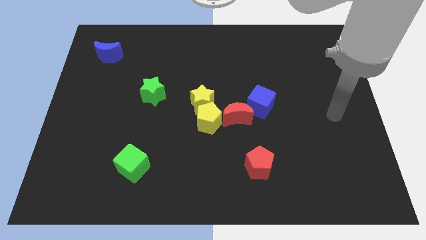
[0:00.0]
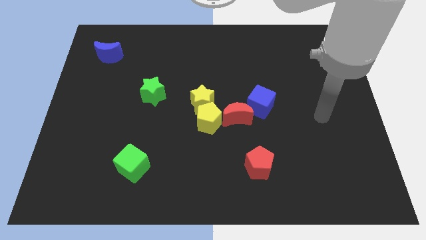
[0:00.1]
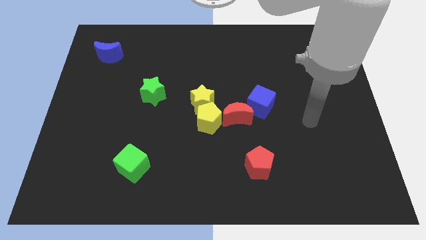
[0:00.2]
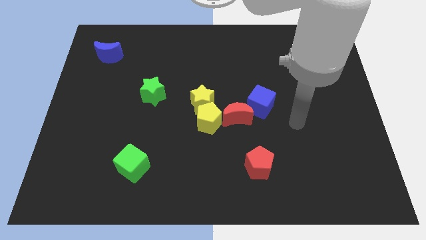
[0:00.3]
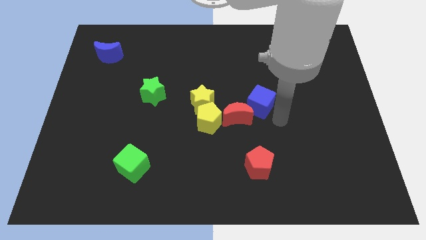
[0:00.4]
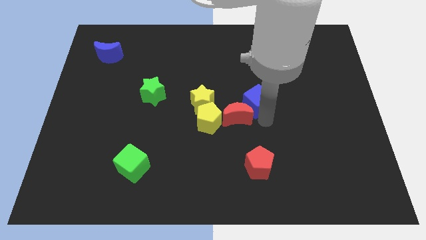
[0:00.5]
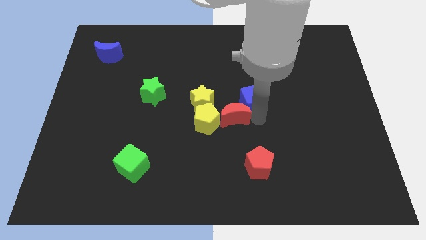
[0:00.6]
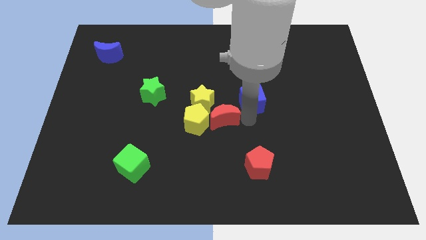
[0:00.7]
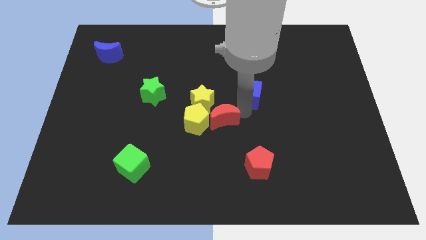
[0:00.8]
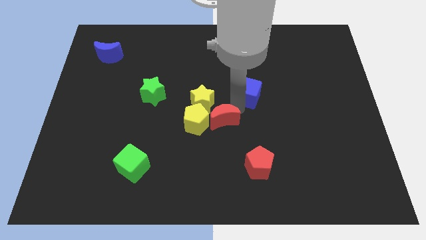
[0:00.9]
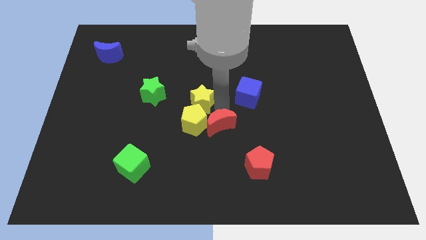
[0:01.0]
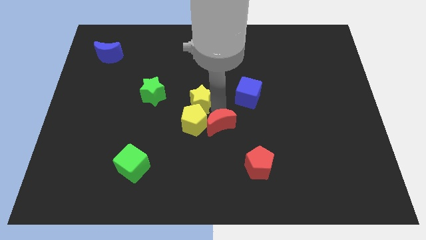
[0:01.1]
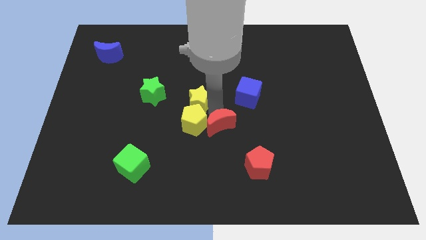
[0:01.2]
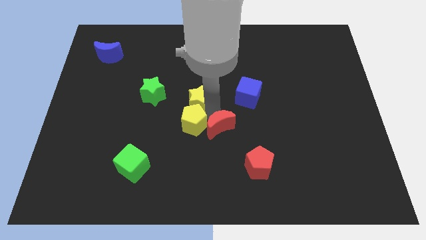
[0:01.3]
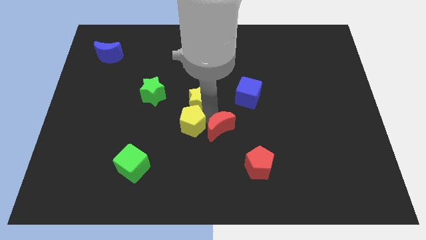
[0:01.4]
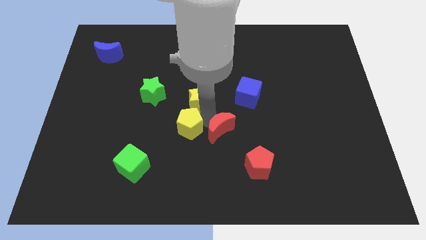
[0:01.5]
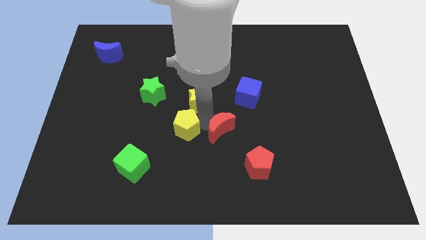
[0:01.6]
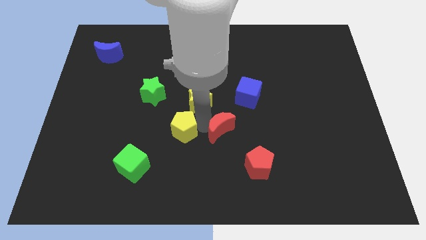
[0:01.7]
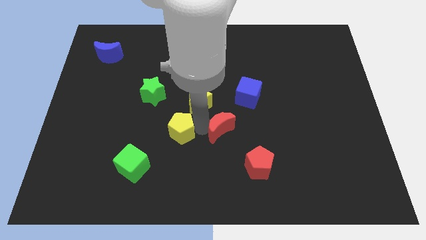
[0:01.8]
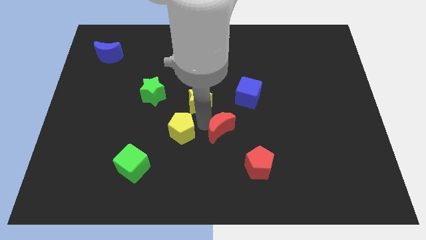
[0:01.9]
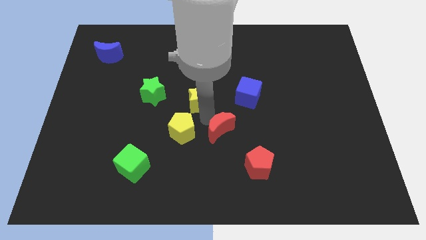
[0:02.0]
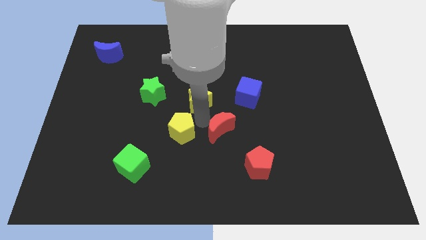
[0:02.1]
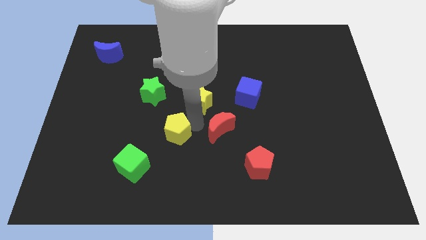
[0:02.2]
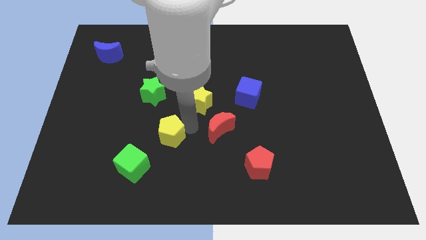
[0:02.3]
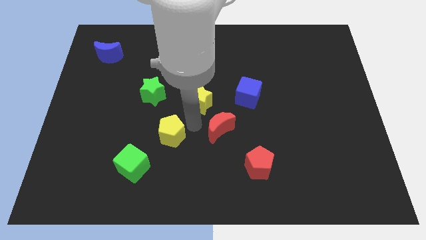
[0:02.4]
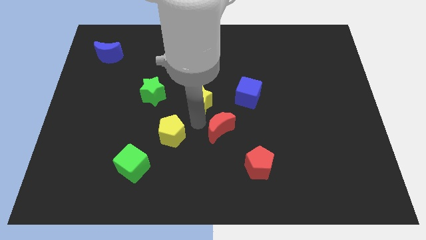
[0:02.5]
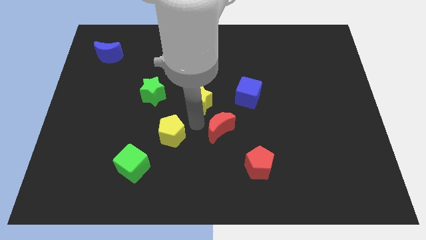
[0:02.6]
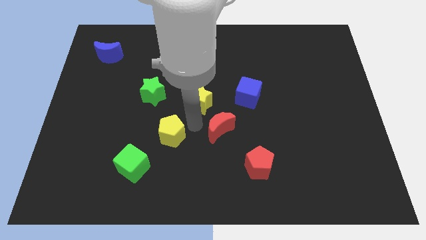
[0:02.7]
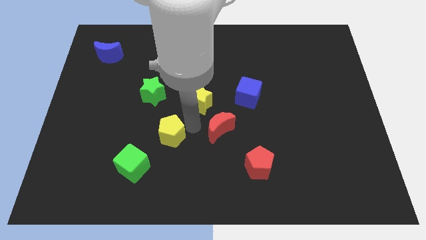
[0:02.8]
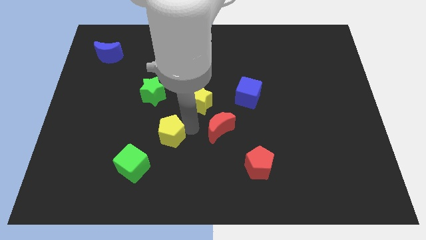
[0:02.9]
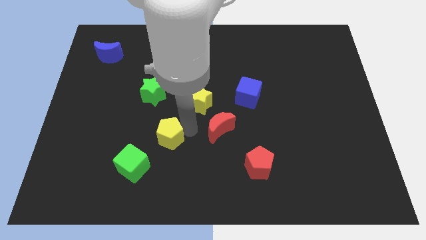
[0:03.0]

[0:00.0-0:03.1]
move the yellow pentagon away from the yellow star and red moon

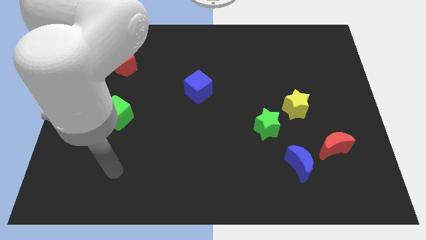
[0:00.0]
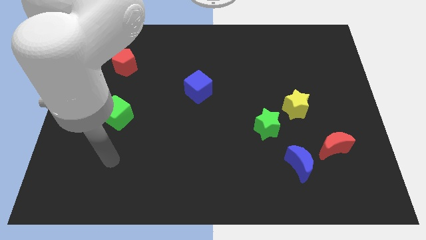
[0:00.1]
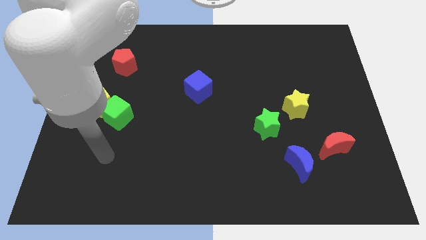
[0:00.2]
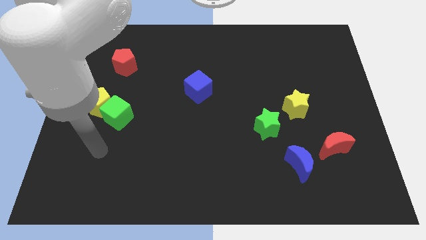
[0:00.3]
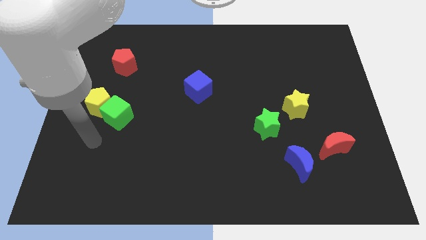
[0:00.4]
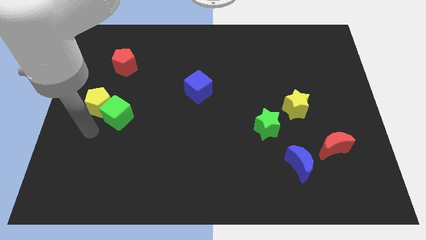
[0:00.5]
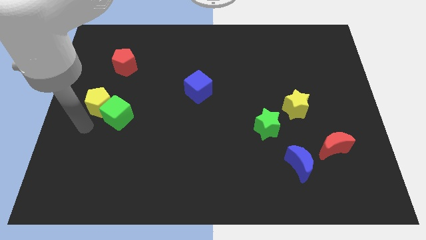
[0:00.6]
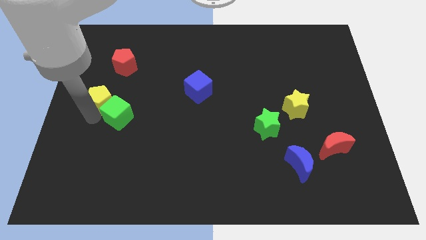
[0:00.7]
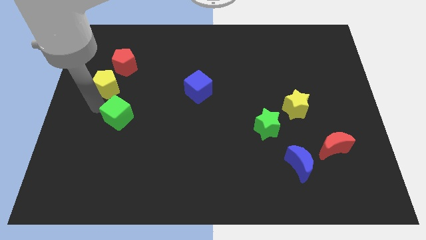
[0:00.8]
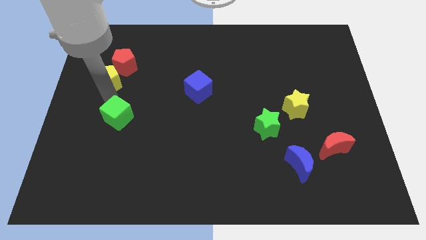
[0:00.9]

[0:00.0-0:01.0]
pull the green cube apart from the yellow pentagon

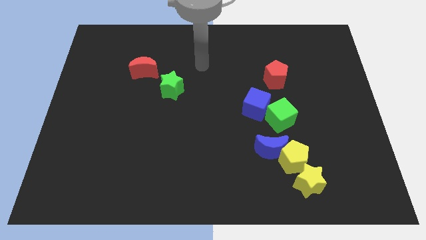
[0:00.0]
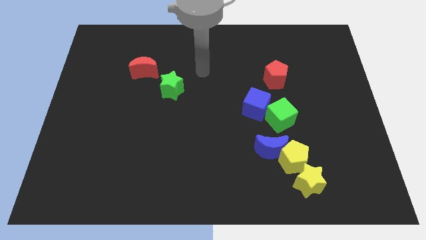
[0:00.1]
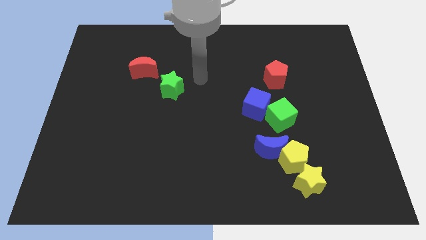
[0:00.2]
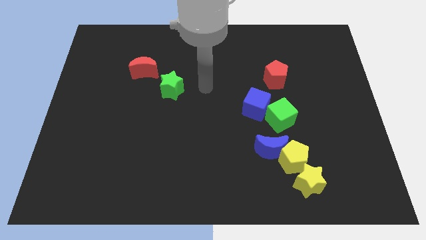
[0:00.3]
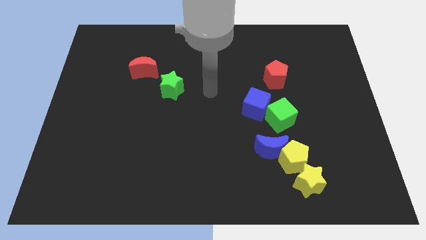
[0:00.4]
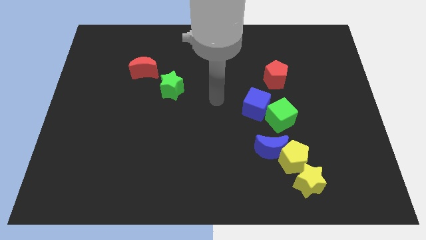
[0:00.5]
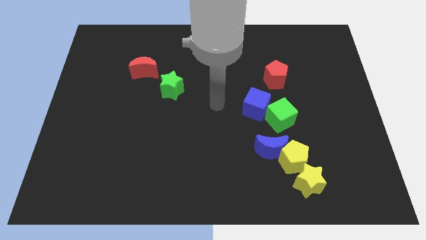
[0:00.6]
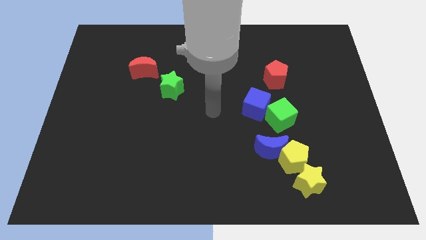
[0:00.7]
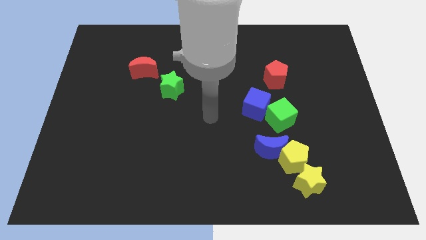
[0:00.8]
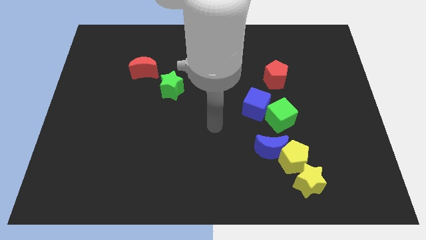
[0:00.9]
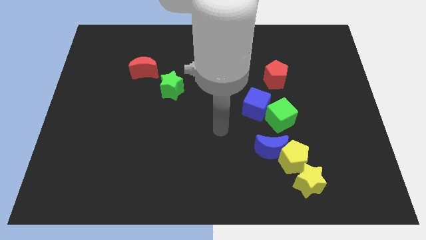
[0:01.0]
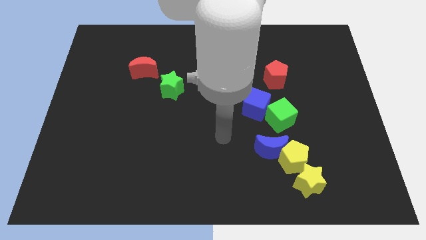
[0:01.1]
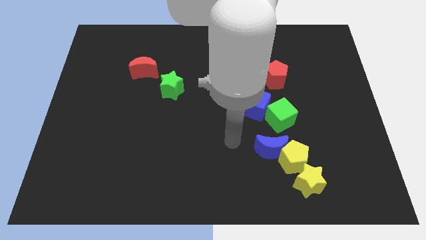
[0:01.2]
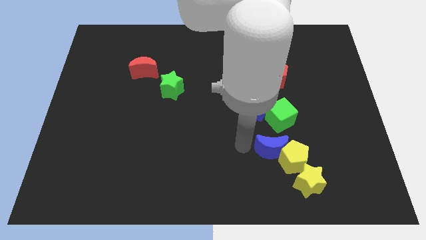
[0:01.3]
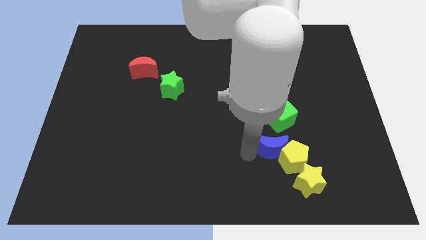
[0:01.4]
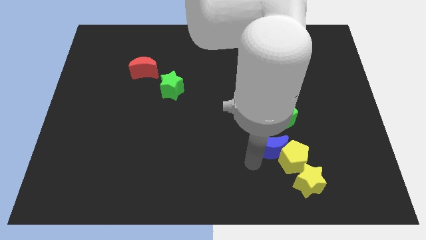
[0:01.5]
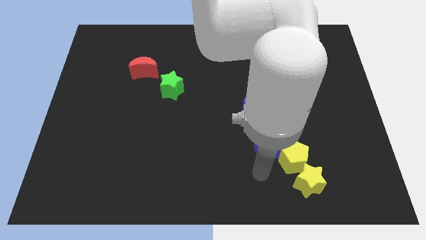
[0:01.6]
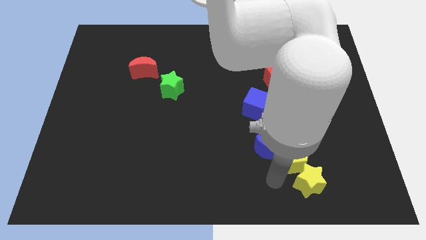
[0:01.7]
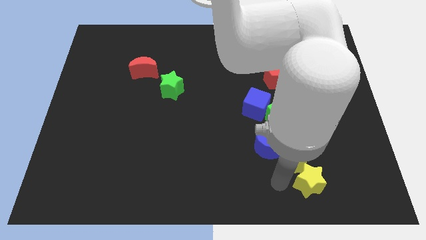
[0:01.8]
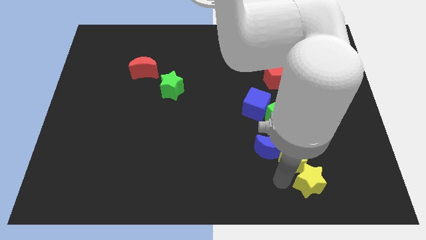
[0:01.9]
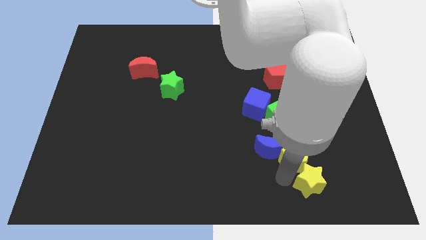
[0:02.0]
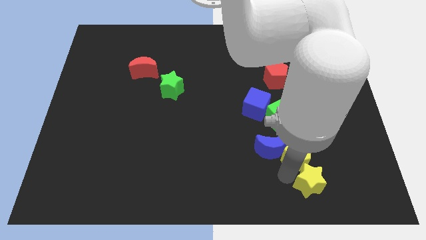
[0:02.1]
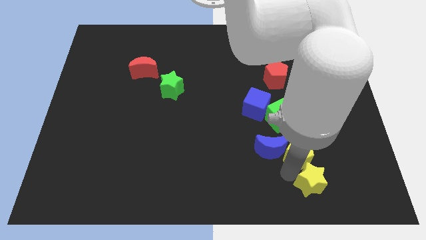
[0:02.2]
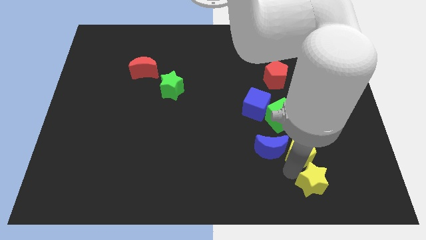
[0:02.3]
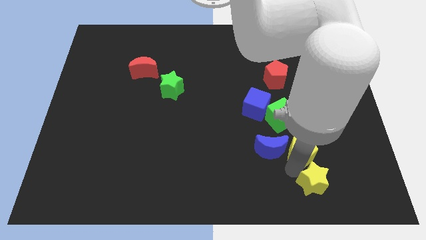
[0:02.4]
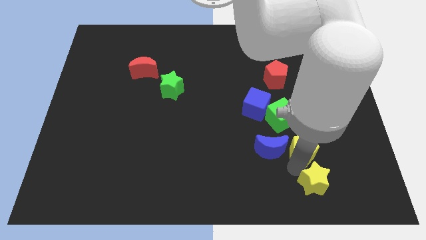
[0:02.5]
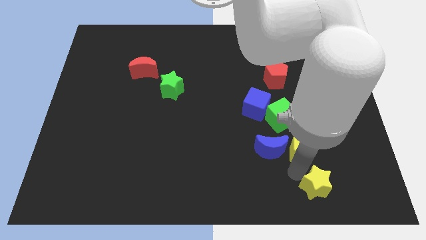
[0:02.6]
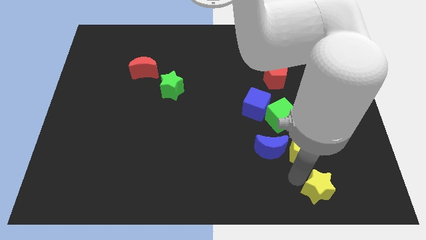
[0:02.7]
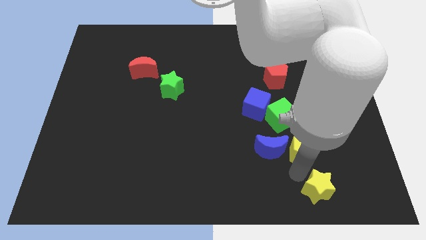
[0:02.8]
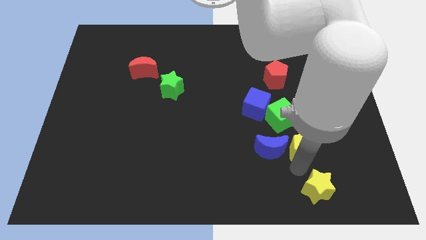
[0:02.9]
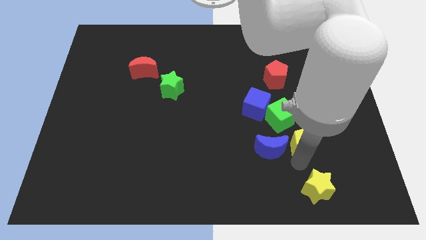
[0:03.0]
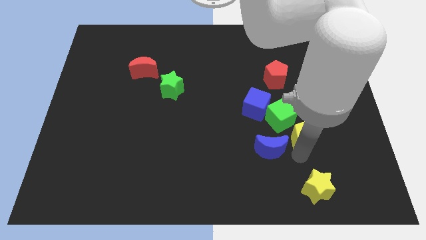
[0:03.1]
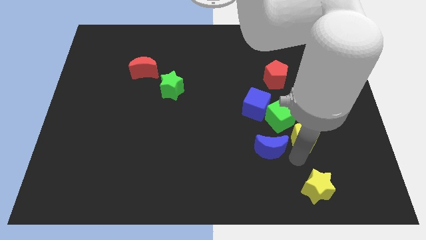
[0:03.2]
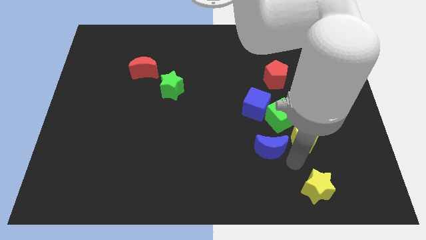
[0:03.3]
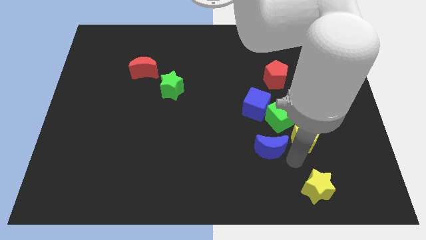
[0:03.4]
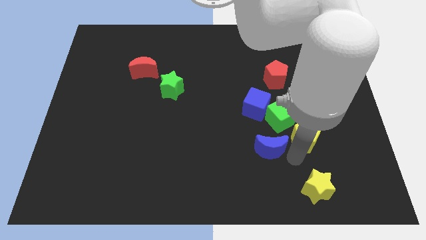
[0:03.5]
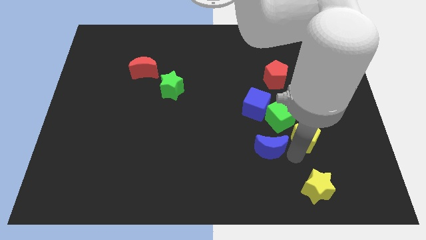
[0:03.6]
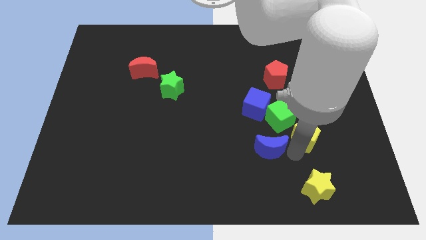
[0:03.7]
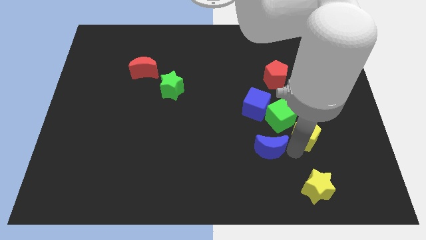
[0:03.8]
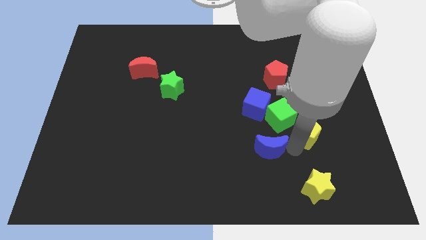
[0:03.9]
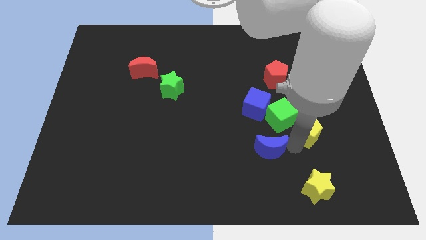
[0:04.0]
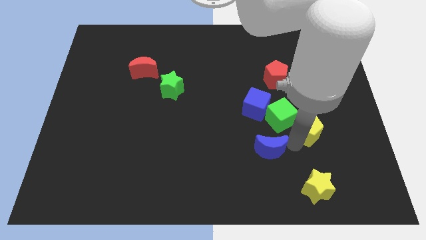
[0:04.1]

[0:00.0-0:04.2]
pull the yellow pentagon apart from the blue moon and yellow star

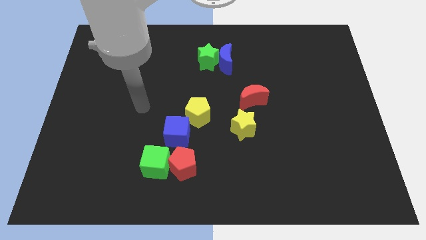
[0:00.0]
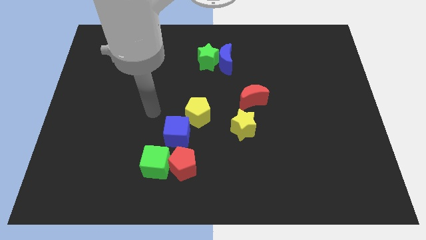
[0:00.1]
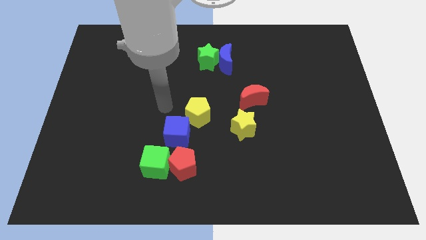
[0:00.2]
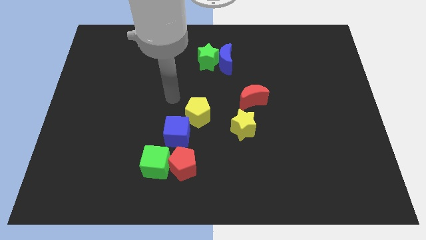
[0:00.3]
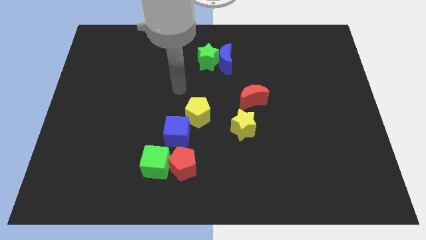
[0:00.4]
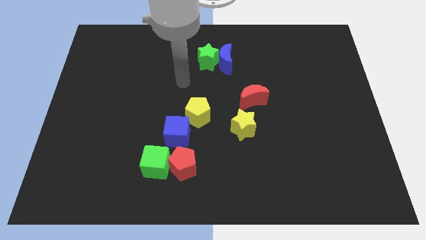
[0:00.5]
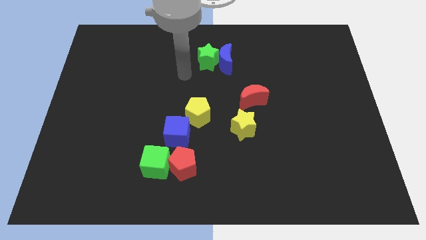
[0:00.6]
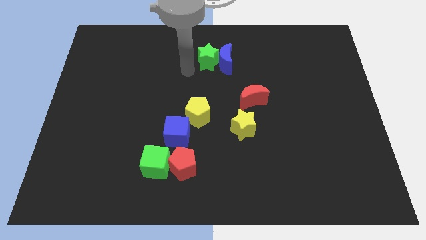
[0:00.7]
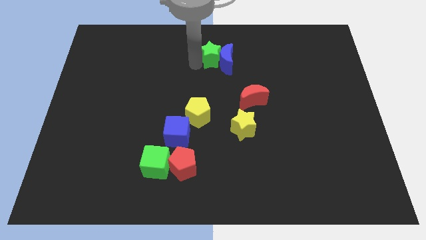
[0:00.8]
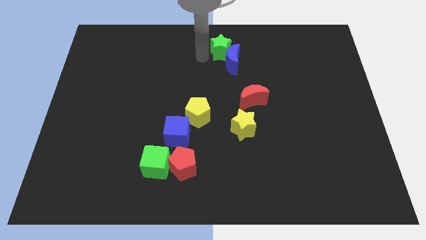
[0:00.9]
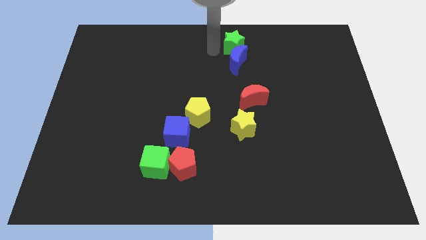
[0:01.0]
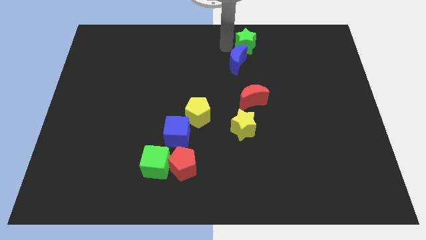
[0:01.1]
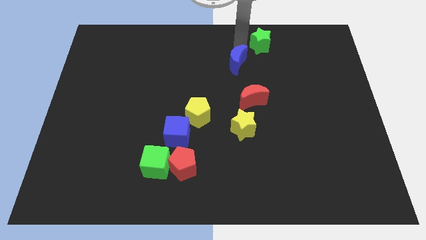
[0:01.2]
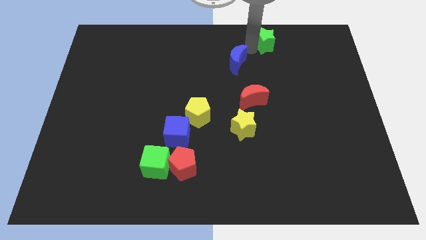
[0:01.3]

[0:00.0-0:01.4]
separate the blue moon from the green star
